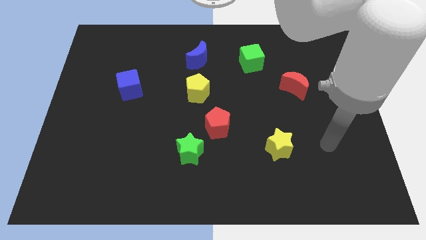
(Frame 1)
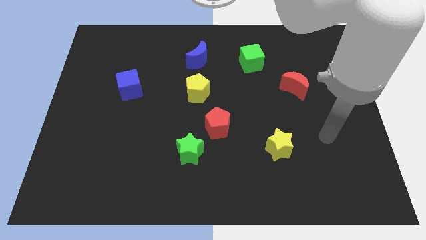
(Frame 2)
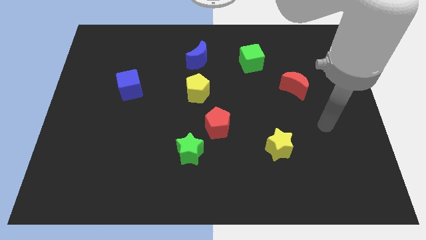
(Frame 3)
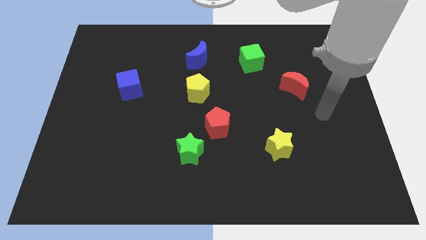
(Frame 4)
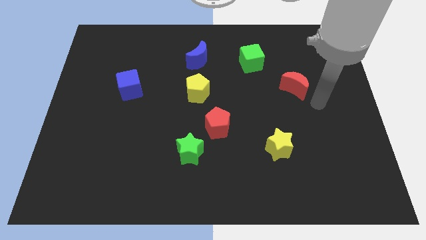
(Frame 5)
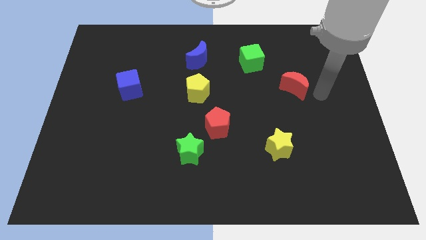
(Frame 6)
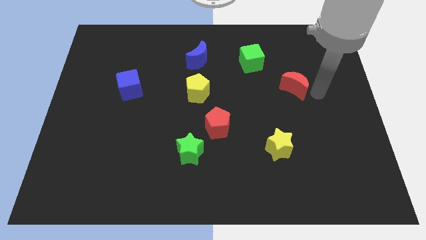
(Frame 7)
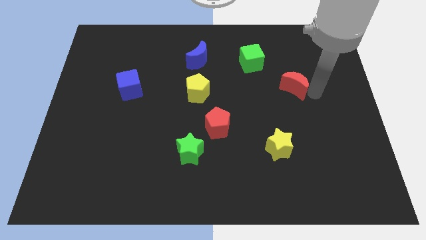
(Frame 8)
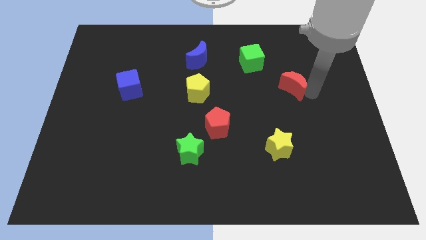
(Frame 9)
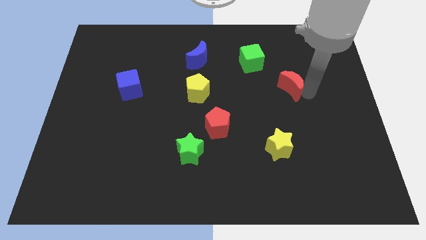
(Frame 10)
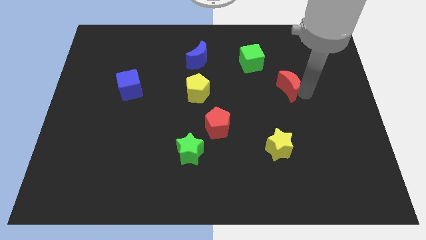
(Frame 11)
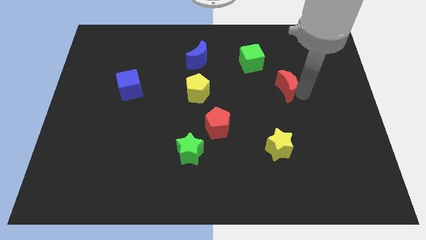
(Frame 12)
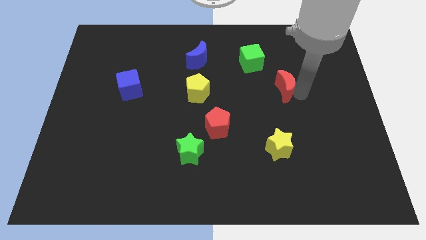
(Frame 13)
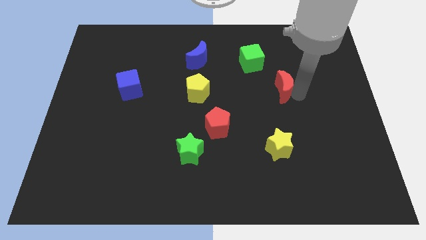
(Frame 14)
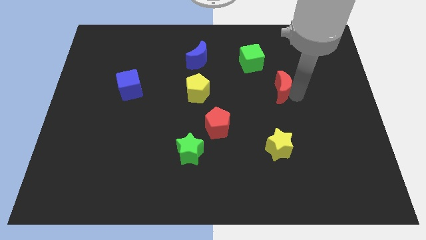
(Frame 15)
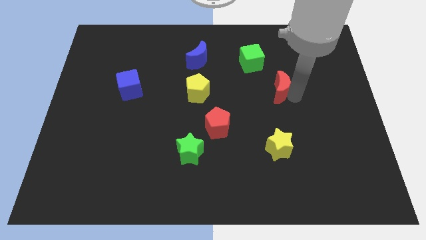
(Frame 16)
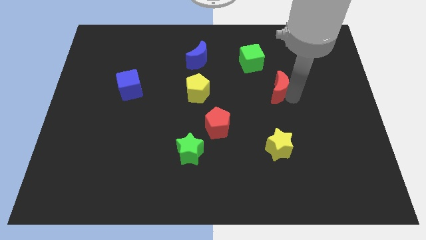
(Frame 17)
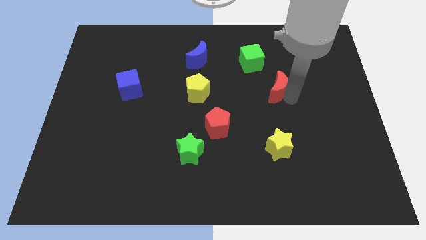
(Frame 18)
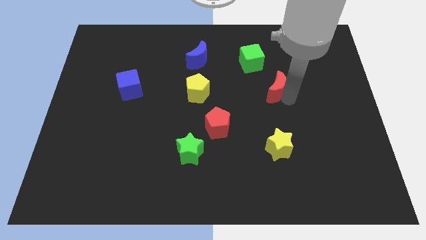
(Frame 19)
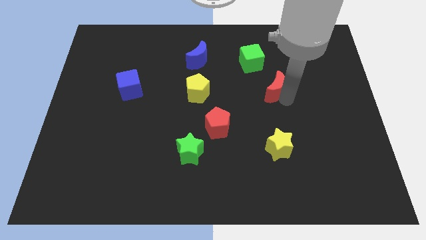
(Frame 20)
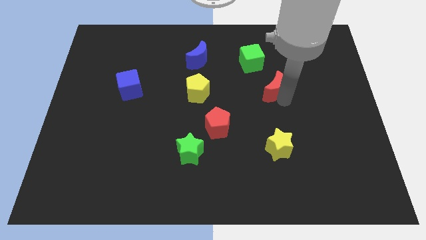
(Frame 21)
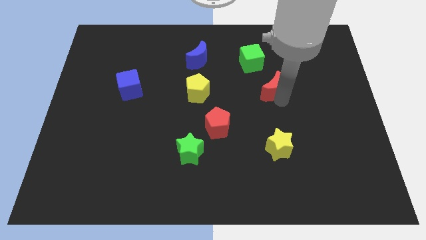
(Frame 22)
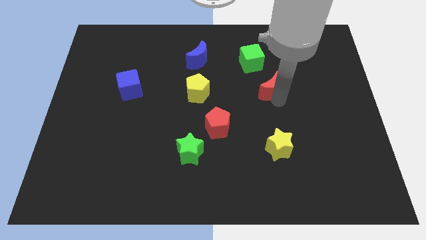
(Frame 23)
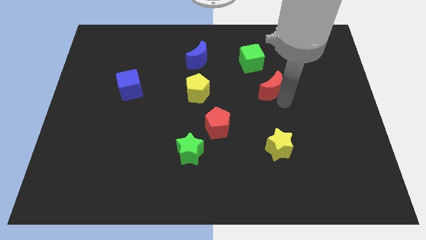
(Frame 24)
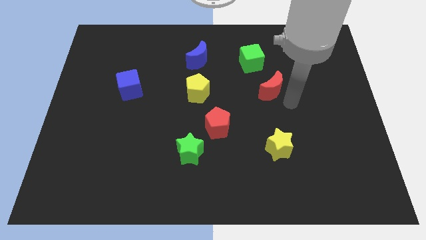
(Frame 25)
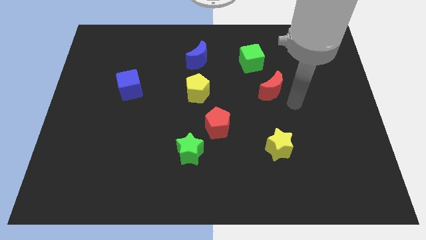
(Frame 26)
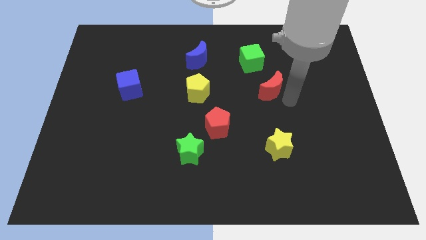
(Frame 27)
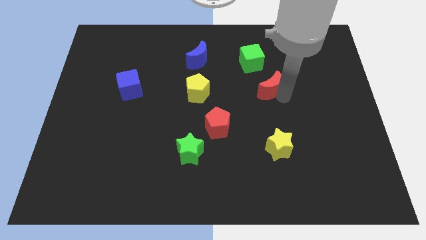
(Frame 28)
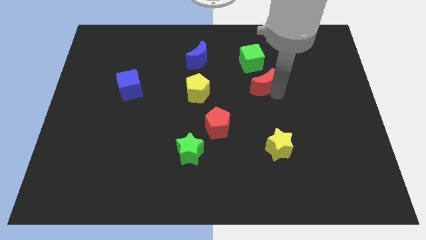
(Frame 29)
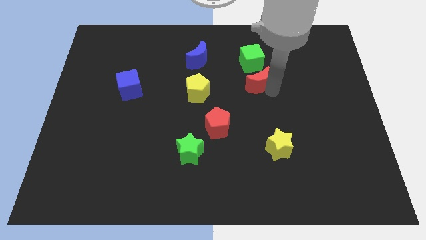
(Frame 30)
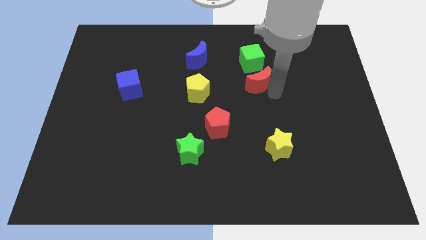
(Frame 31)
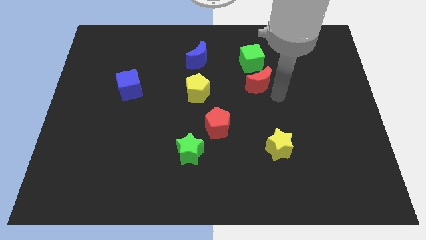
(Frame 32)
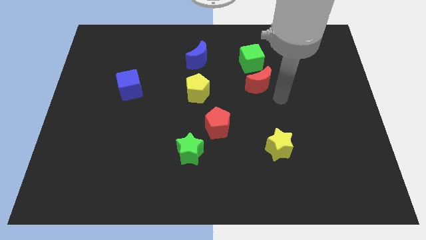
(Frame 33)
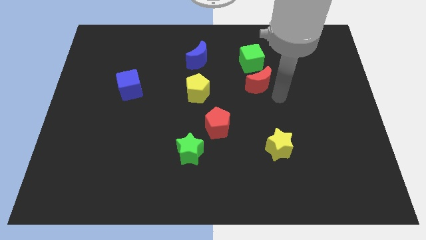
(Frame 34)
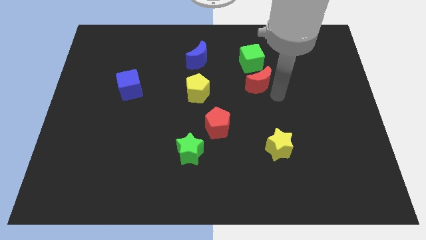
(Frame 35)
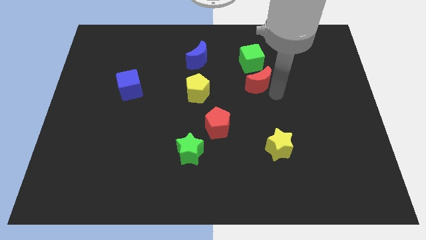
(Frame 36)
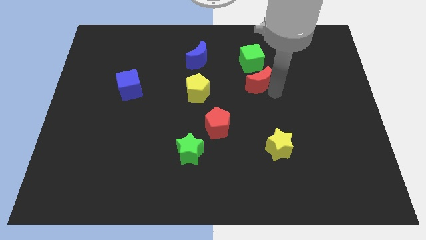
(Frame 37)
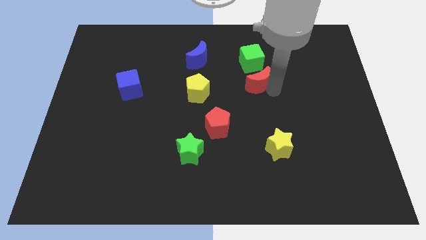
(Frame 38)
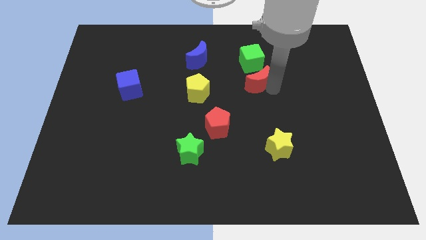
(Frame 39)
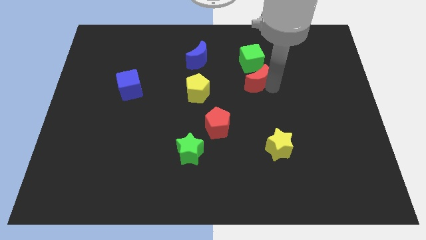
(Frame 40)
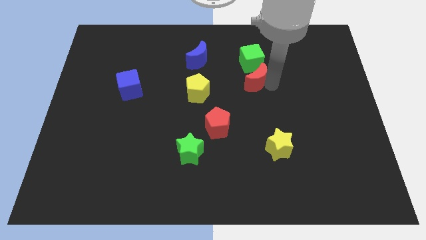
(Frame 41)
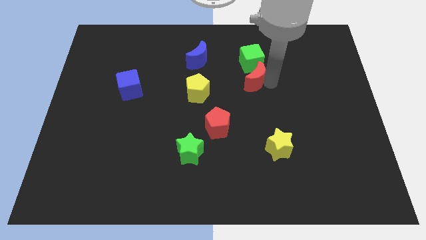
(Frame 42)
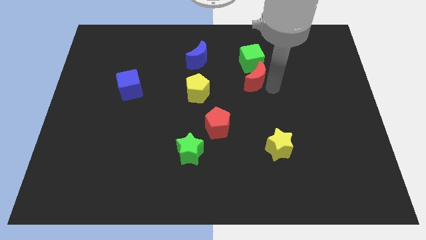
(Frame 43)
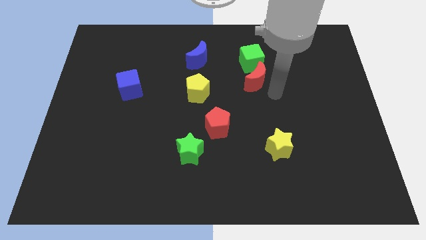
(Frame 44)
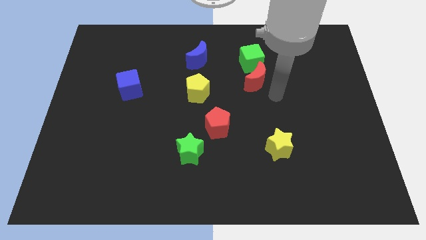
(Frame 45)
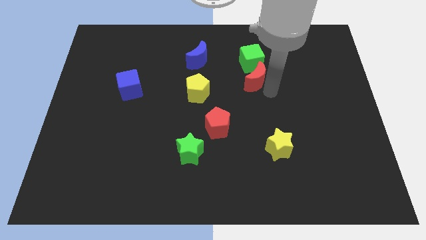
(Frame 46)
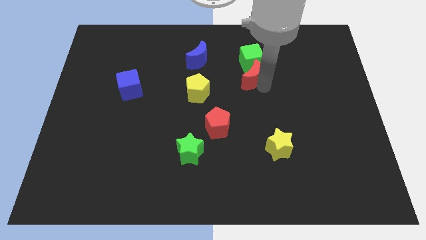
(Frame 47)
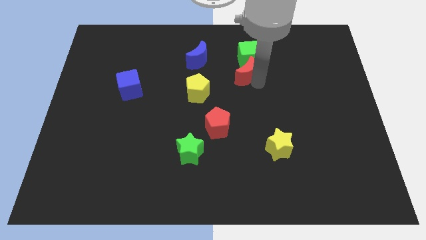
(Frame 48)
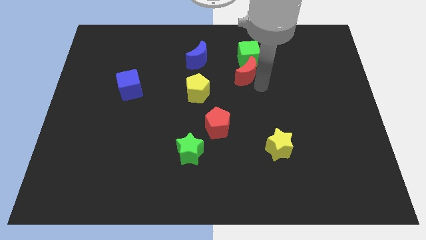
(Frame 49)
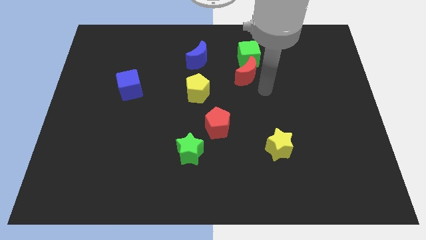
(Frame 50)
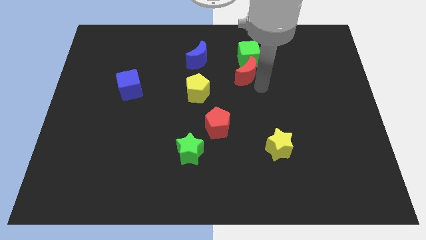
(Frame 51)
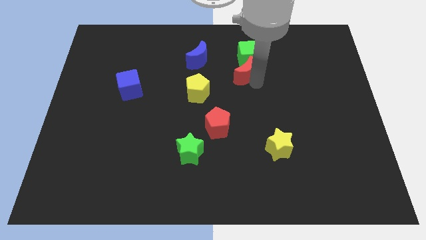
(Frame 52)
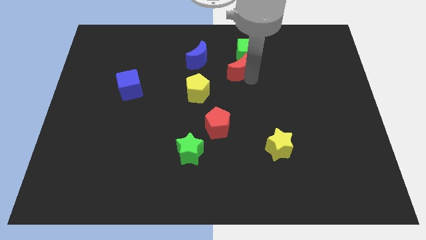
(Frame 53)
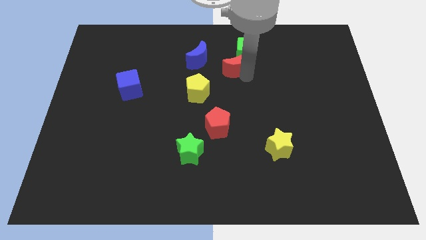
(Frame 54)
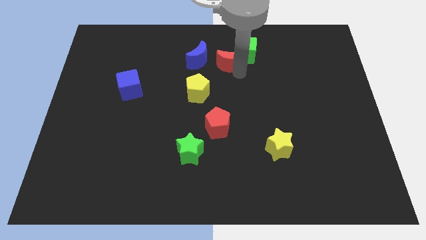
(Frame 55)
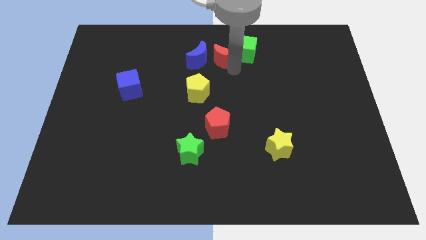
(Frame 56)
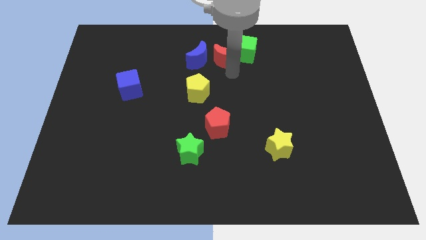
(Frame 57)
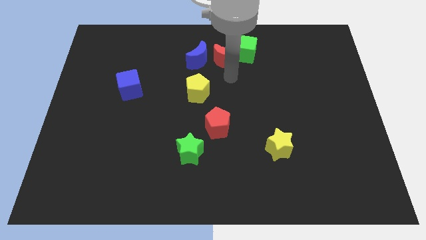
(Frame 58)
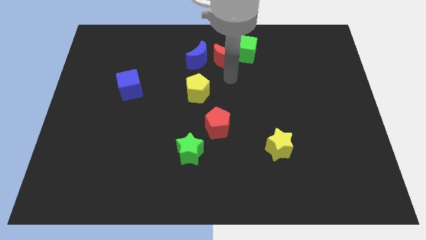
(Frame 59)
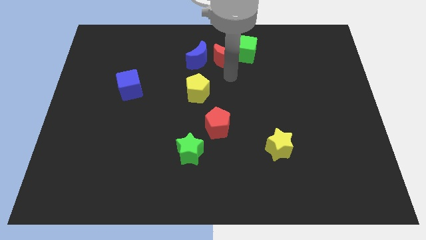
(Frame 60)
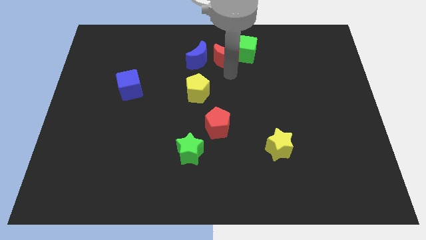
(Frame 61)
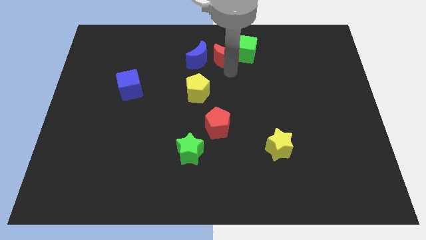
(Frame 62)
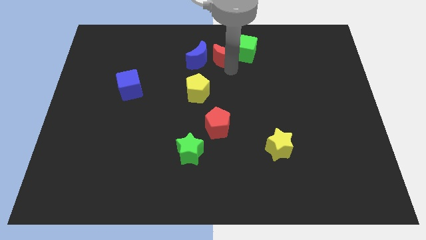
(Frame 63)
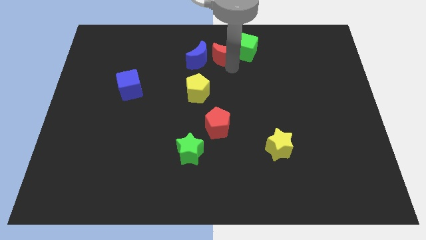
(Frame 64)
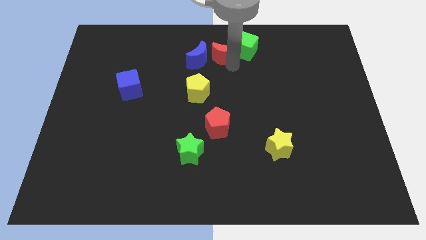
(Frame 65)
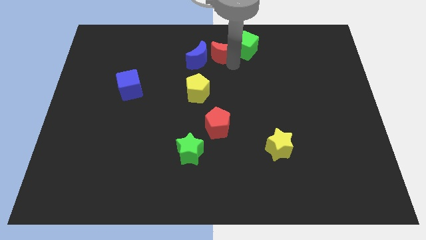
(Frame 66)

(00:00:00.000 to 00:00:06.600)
slide the red moon to the towards your base

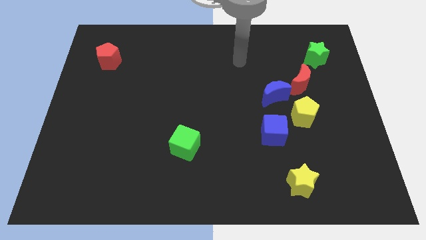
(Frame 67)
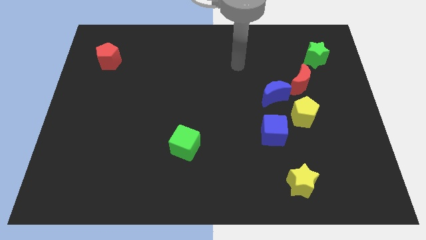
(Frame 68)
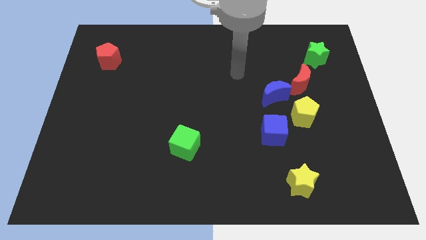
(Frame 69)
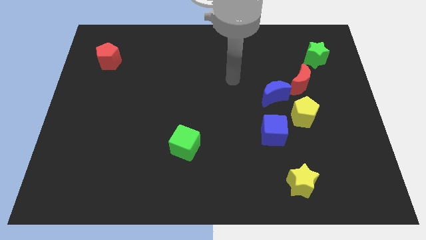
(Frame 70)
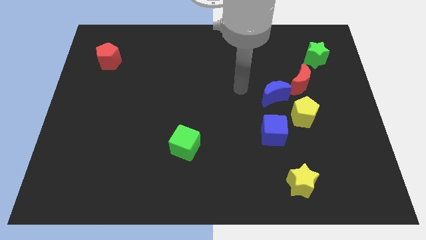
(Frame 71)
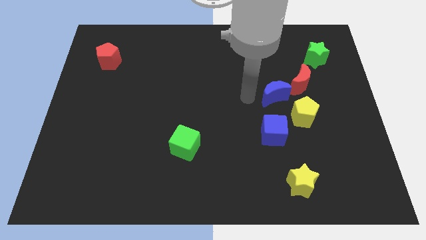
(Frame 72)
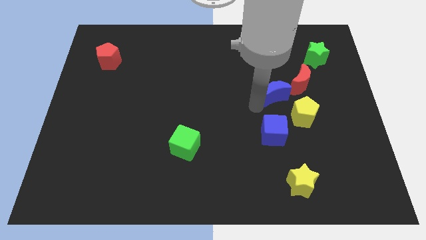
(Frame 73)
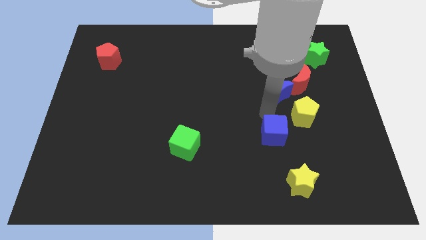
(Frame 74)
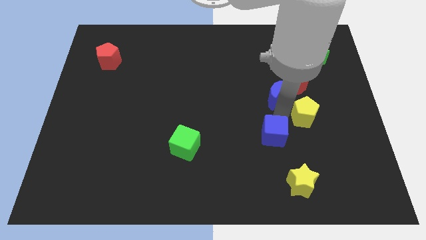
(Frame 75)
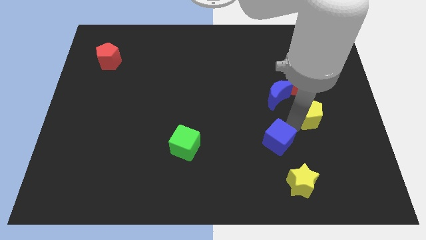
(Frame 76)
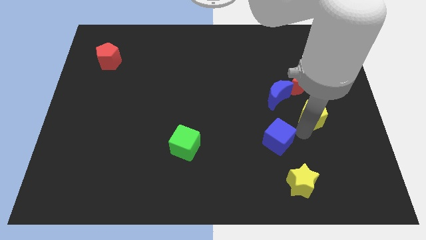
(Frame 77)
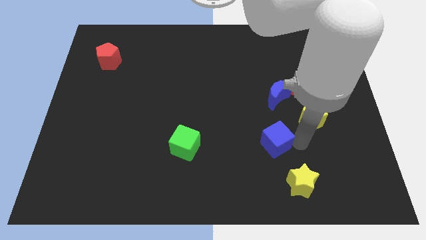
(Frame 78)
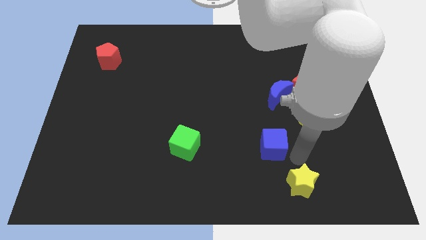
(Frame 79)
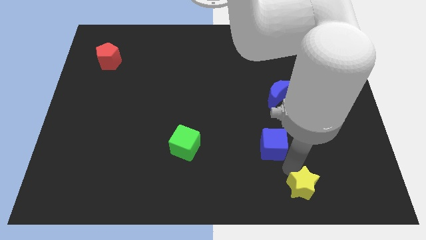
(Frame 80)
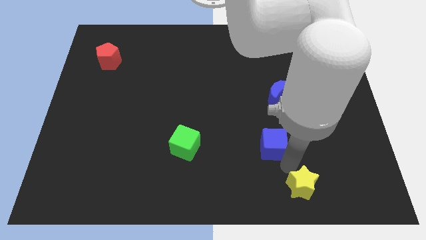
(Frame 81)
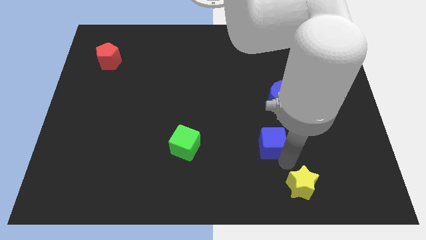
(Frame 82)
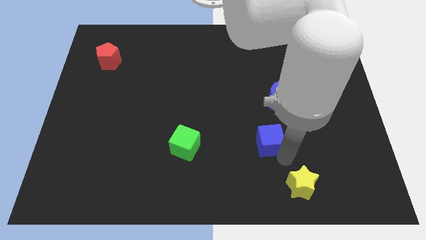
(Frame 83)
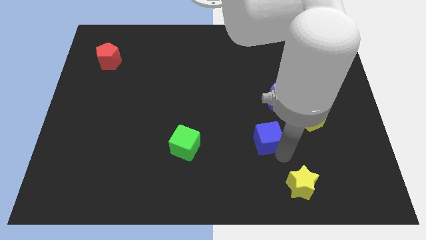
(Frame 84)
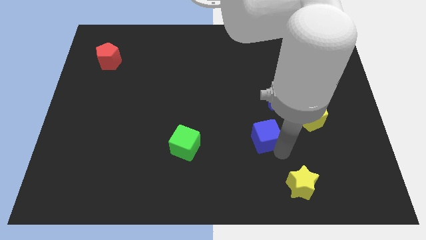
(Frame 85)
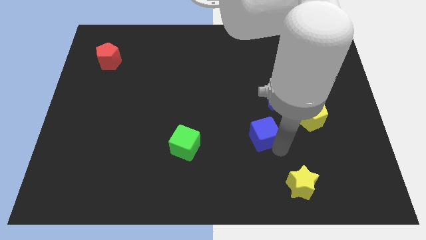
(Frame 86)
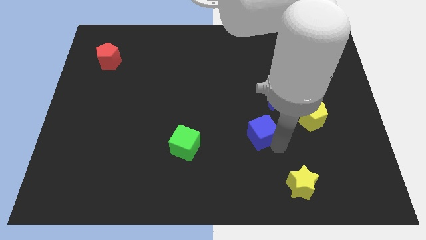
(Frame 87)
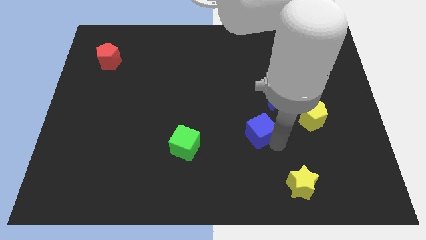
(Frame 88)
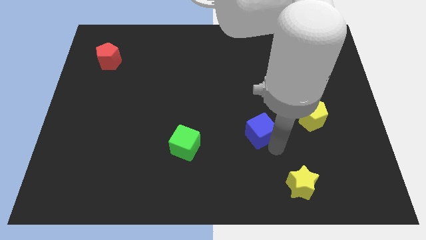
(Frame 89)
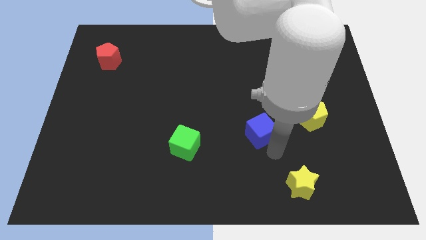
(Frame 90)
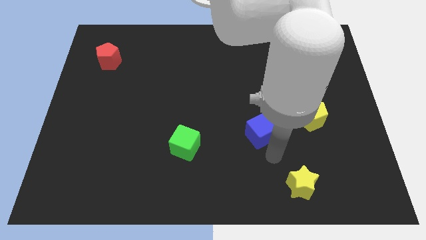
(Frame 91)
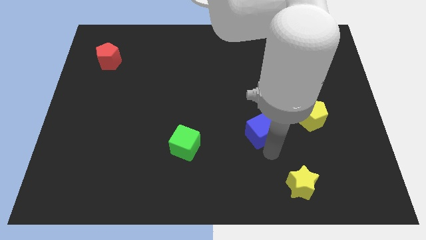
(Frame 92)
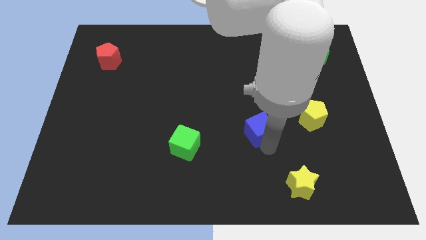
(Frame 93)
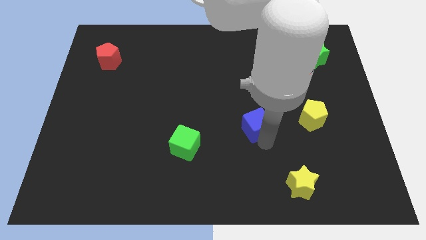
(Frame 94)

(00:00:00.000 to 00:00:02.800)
move the blue cube to the middle of the board
